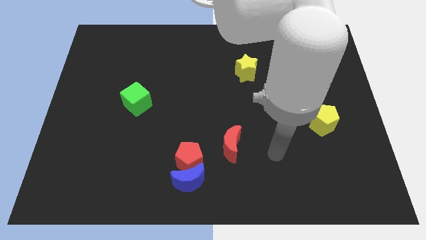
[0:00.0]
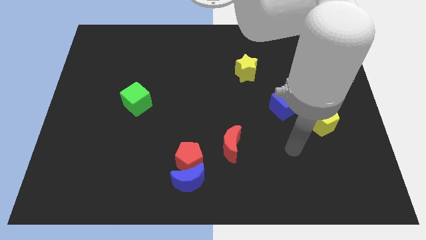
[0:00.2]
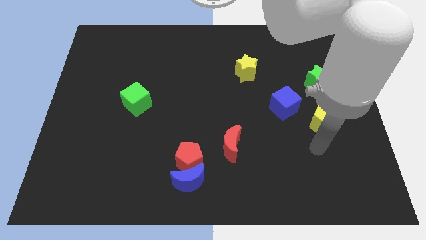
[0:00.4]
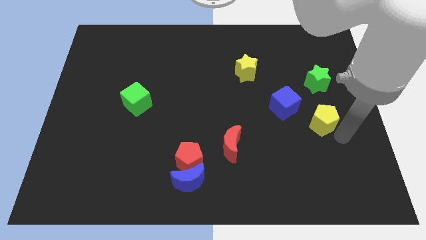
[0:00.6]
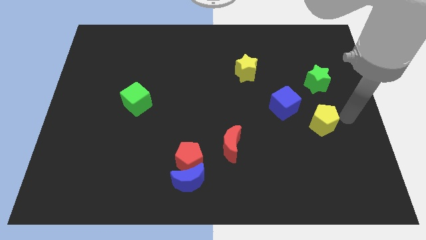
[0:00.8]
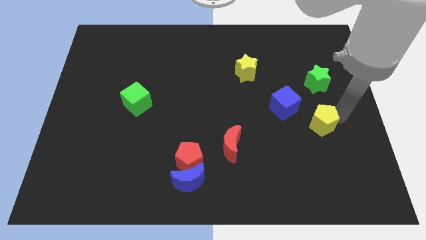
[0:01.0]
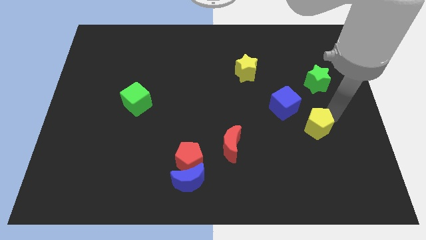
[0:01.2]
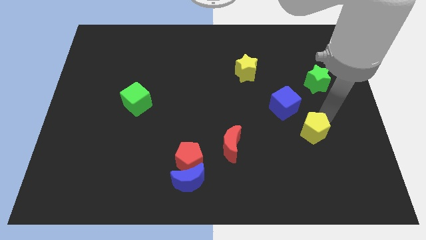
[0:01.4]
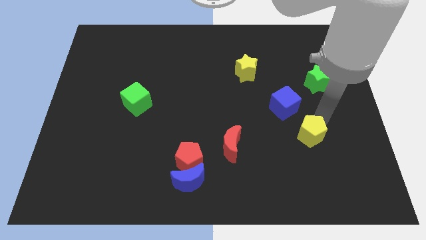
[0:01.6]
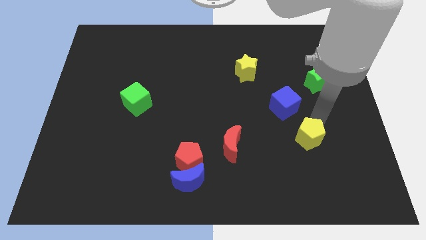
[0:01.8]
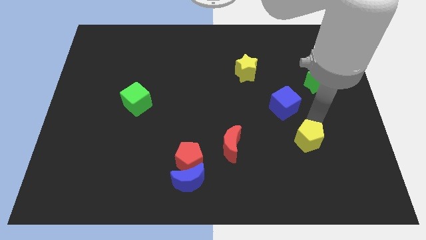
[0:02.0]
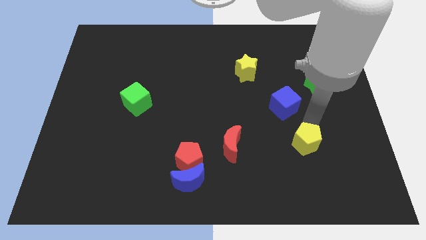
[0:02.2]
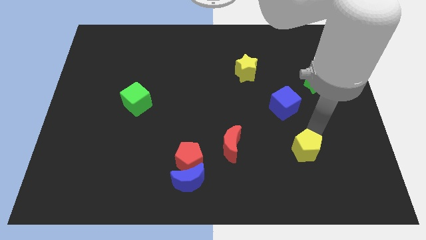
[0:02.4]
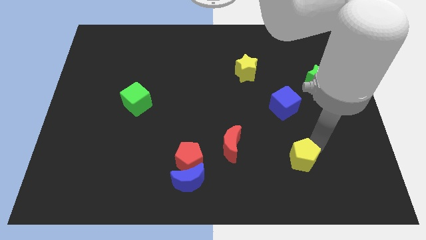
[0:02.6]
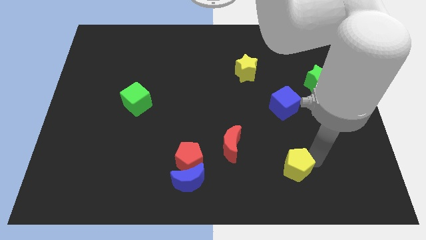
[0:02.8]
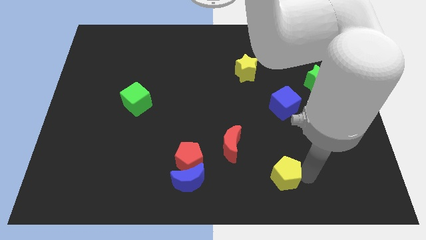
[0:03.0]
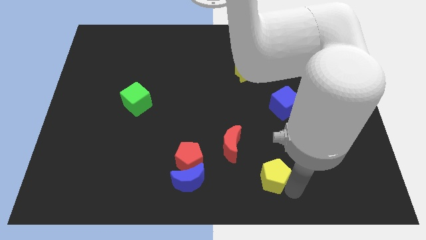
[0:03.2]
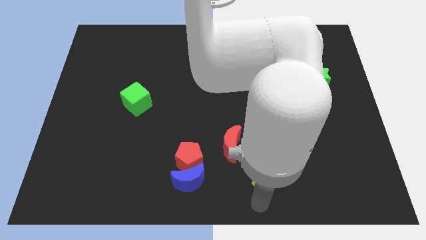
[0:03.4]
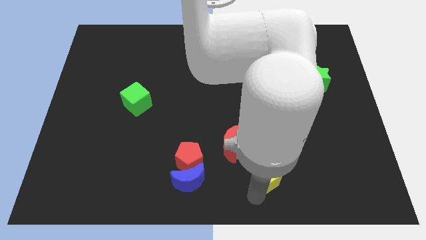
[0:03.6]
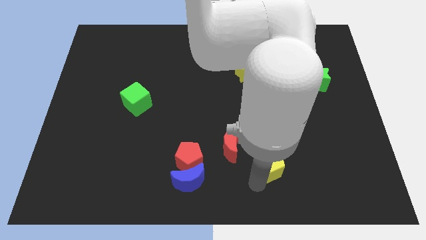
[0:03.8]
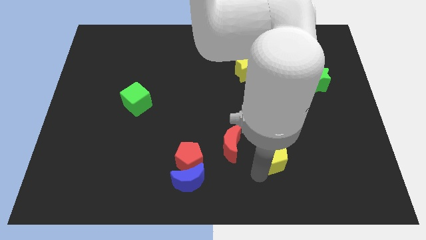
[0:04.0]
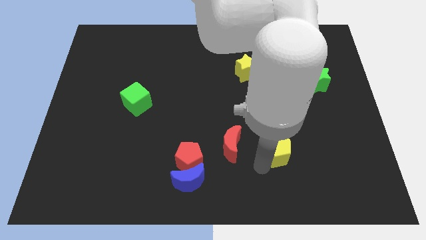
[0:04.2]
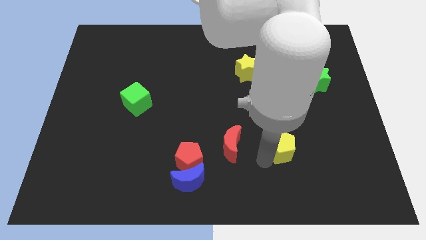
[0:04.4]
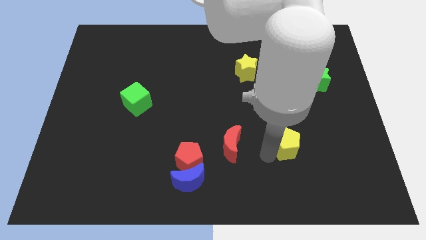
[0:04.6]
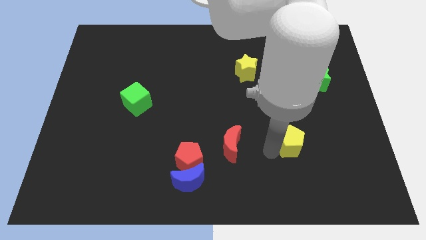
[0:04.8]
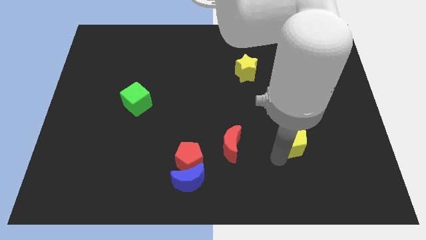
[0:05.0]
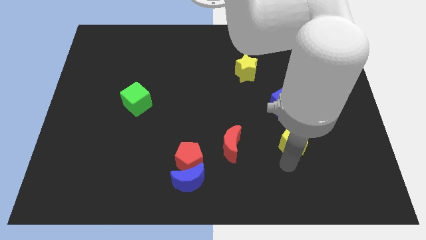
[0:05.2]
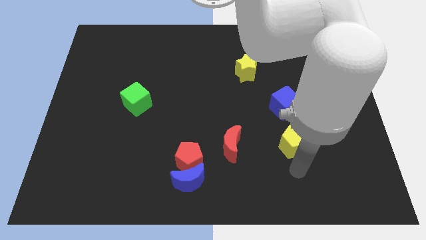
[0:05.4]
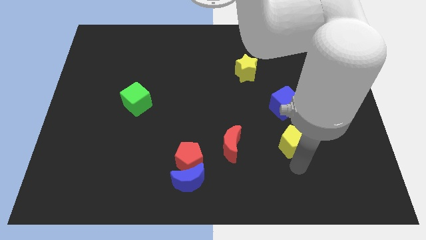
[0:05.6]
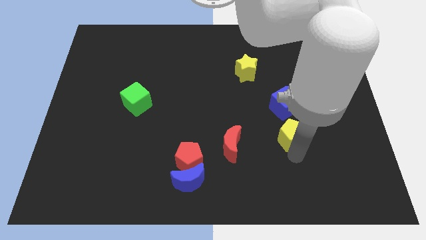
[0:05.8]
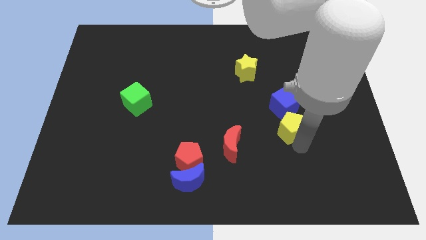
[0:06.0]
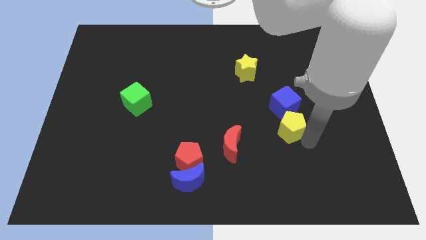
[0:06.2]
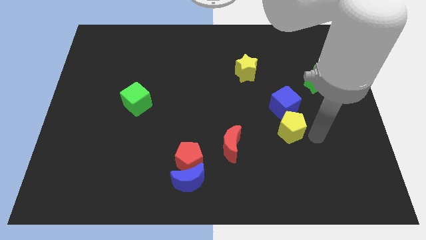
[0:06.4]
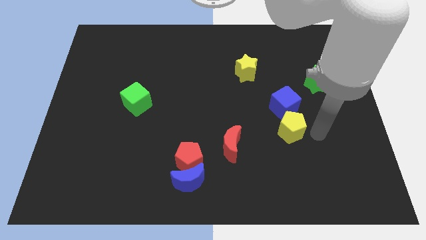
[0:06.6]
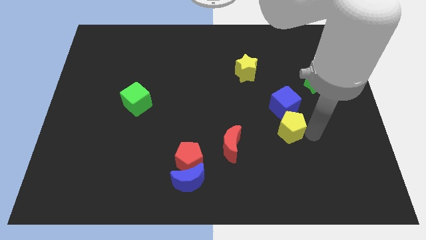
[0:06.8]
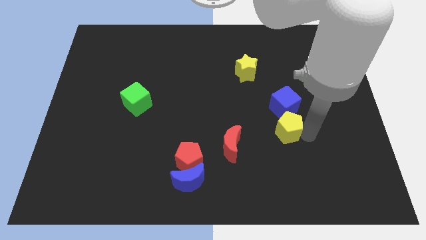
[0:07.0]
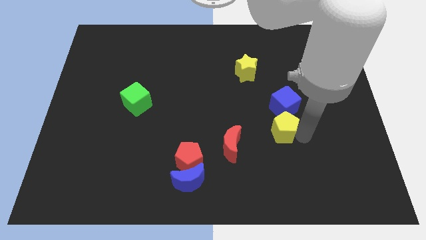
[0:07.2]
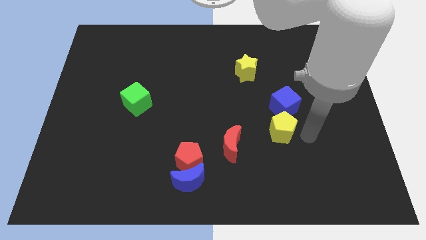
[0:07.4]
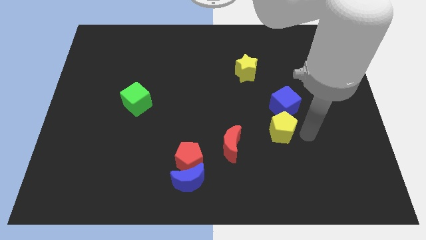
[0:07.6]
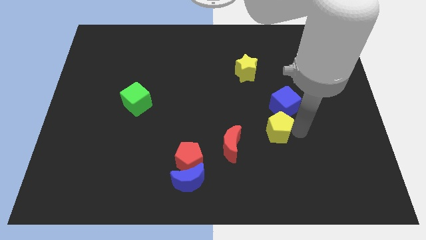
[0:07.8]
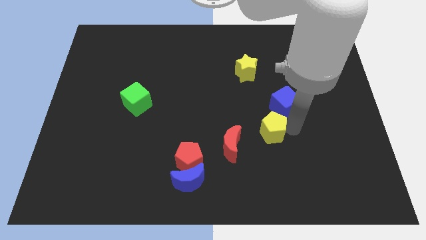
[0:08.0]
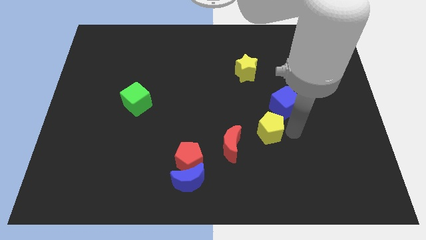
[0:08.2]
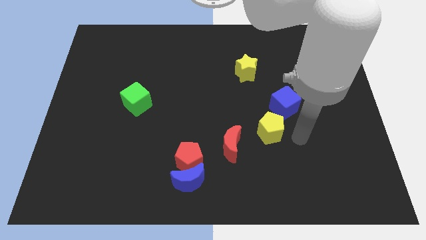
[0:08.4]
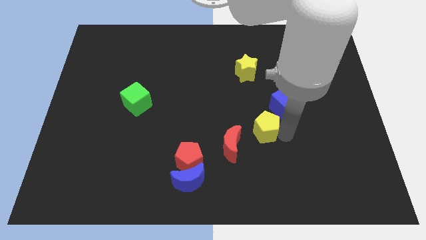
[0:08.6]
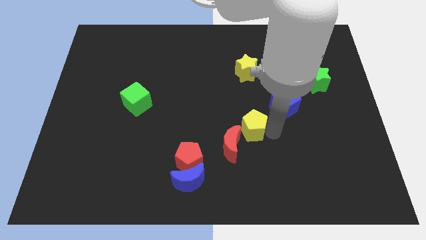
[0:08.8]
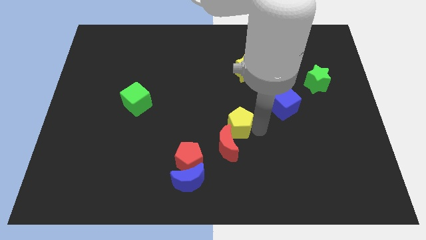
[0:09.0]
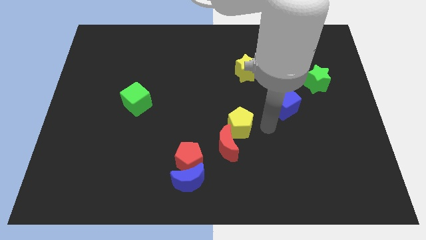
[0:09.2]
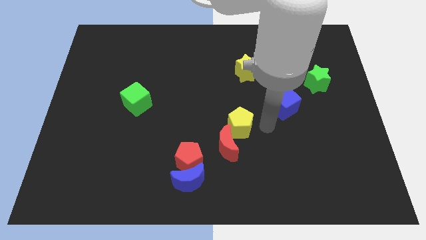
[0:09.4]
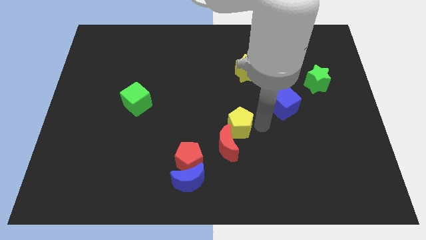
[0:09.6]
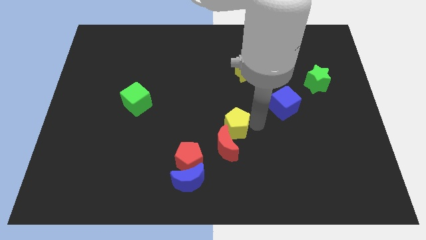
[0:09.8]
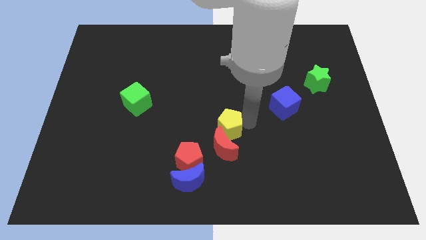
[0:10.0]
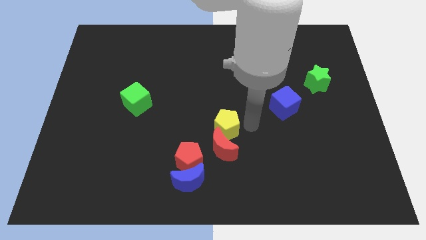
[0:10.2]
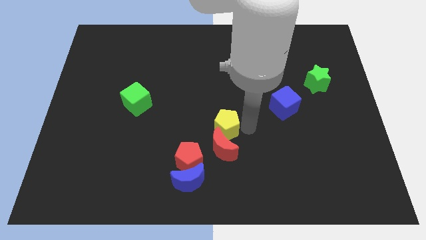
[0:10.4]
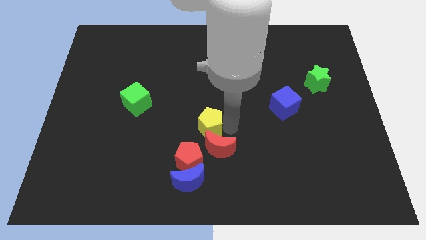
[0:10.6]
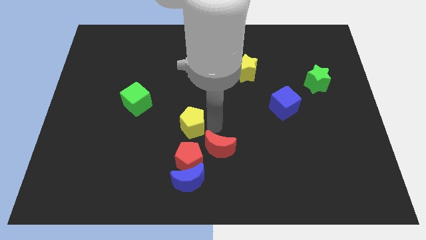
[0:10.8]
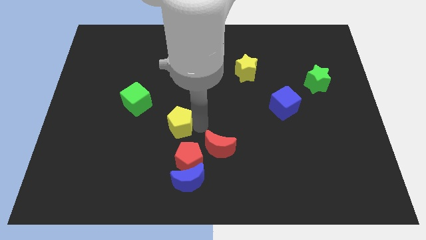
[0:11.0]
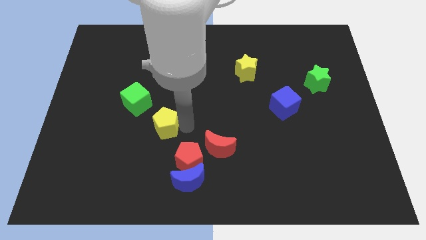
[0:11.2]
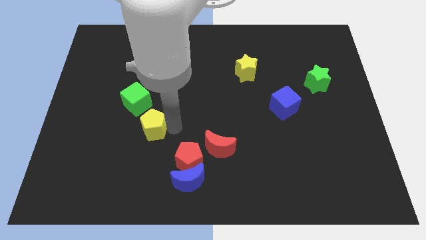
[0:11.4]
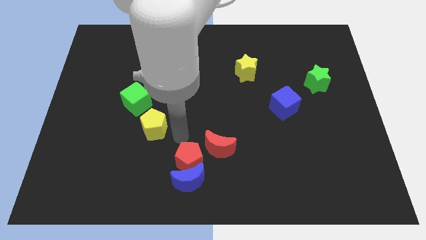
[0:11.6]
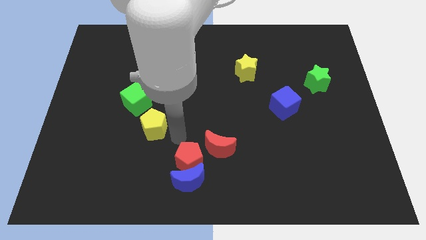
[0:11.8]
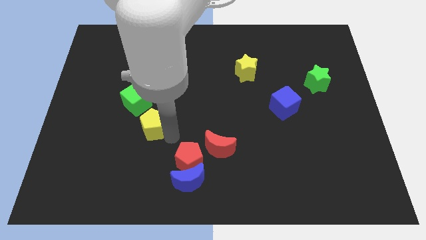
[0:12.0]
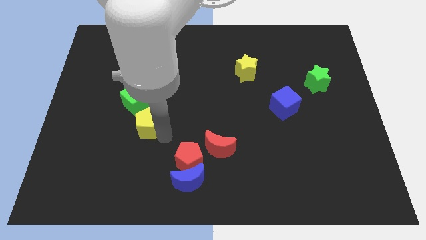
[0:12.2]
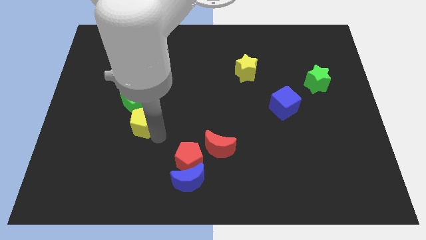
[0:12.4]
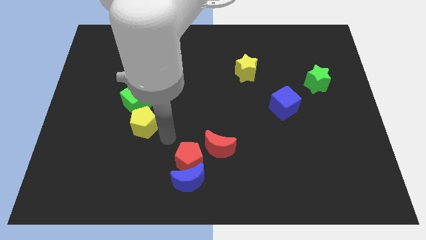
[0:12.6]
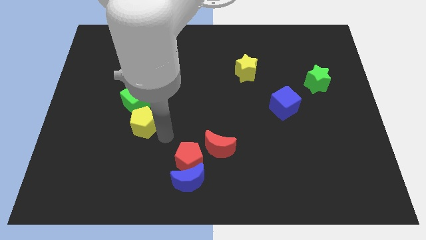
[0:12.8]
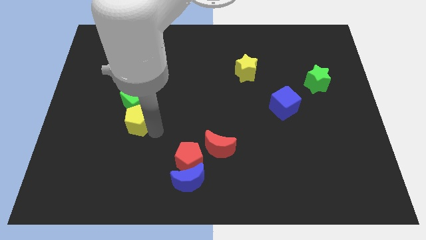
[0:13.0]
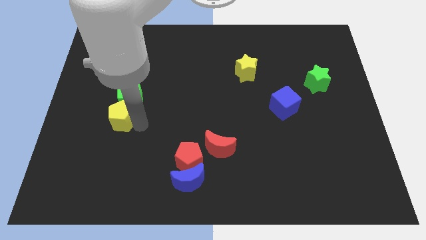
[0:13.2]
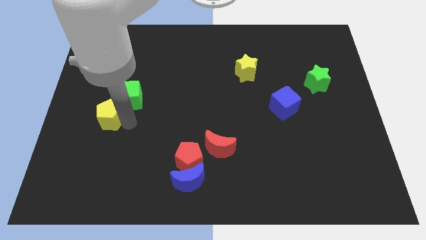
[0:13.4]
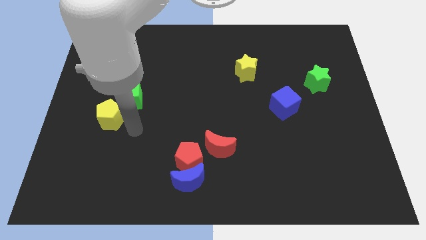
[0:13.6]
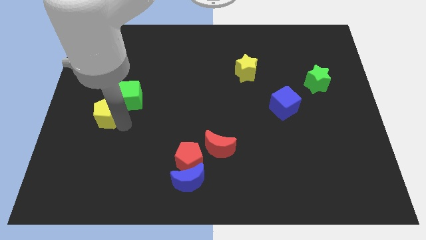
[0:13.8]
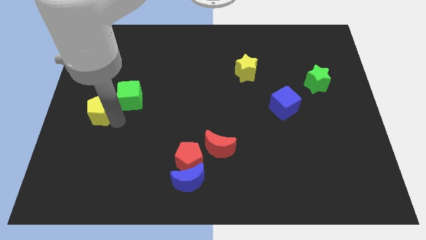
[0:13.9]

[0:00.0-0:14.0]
move the yellow pentagon to the left side
